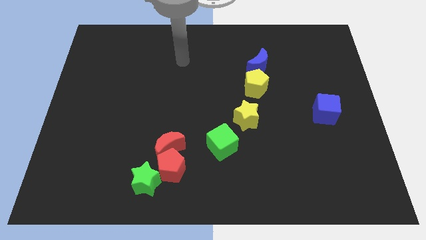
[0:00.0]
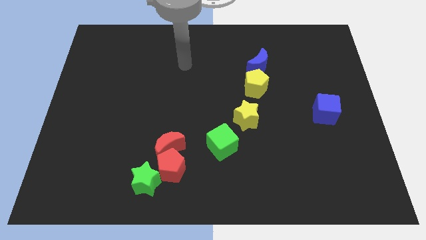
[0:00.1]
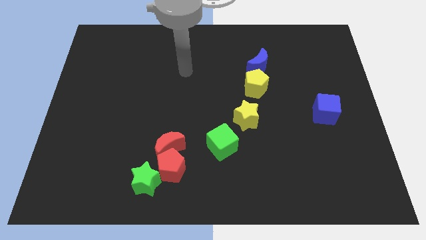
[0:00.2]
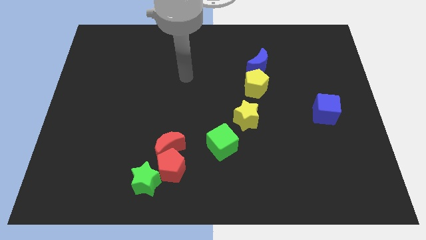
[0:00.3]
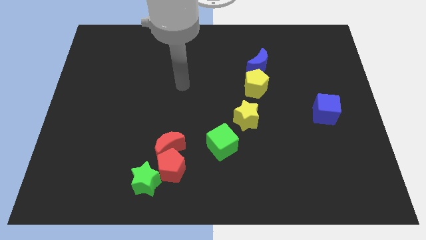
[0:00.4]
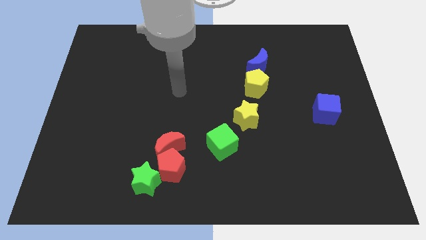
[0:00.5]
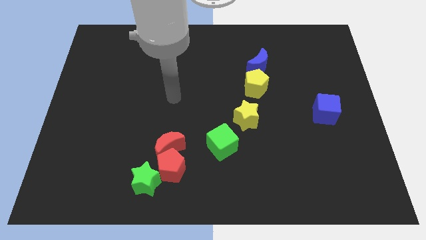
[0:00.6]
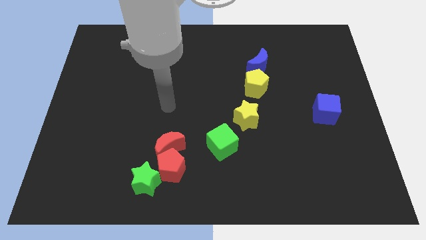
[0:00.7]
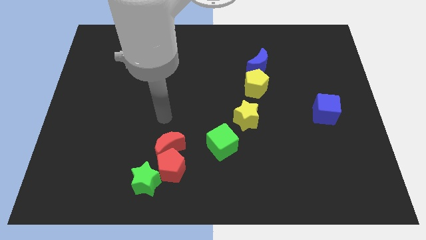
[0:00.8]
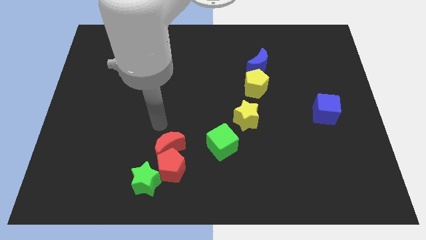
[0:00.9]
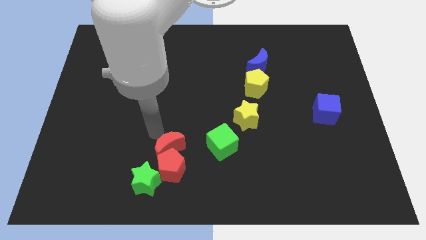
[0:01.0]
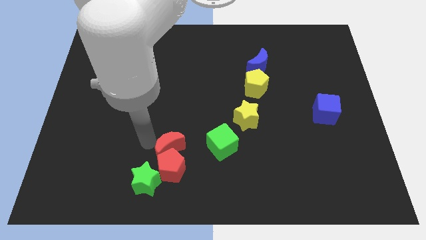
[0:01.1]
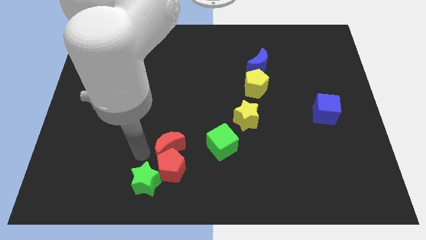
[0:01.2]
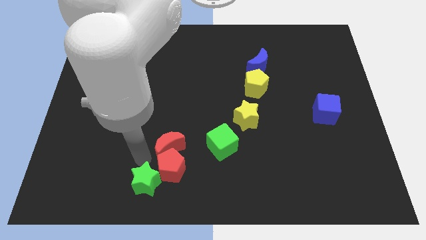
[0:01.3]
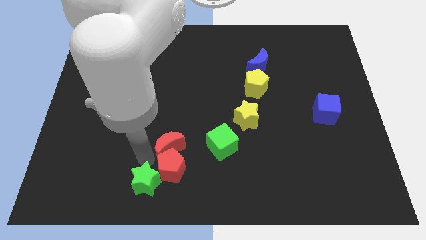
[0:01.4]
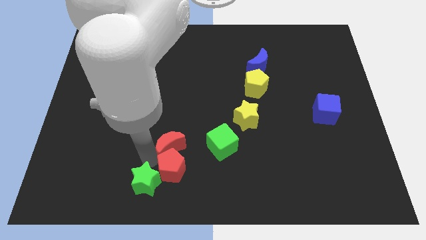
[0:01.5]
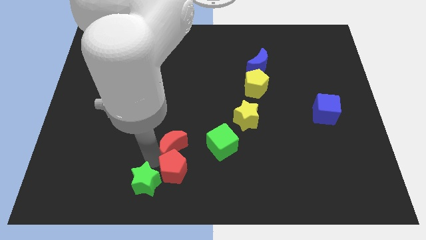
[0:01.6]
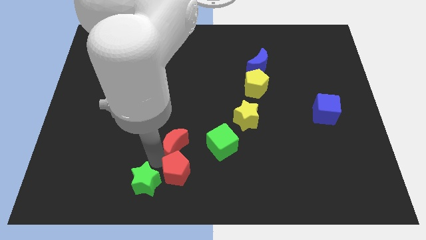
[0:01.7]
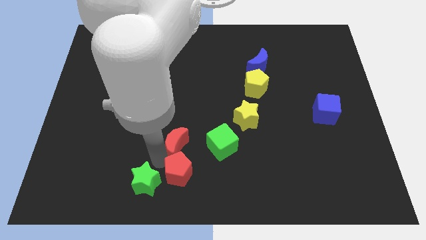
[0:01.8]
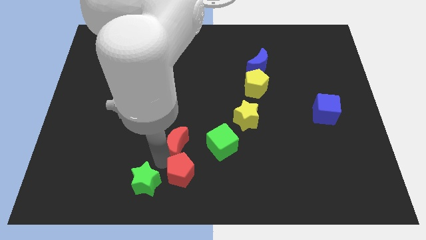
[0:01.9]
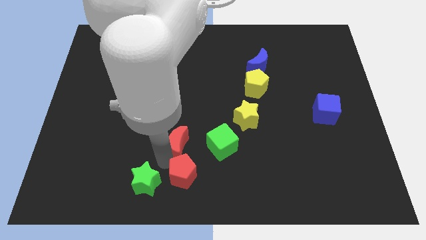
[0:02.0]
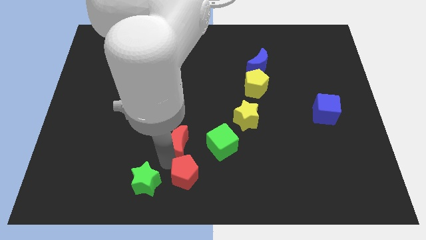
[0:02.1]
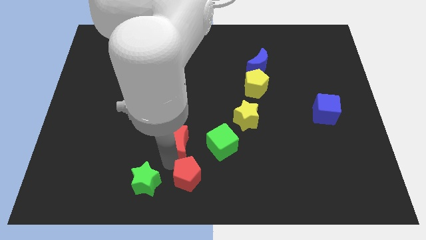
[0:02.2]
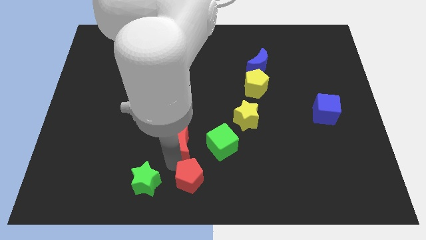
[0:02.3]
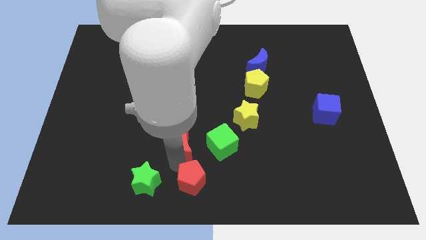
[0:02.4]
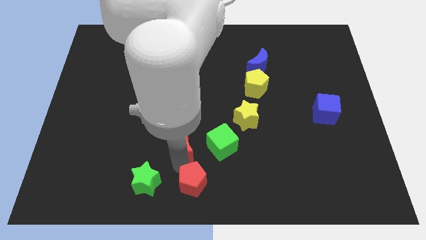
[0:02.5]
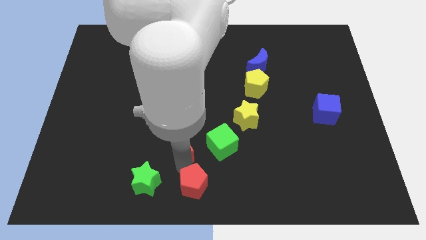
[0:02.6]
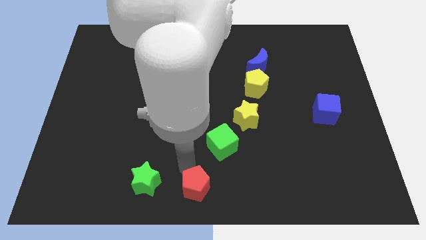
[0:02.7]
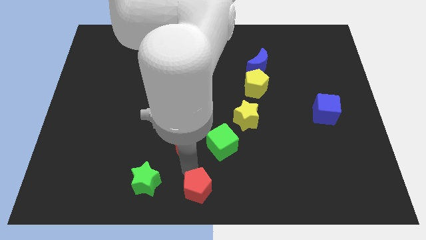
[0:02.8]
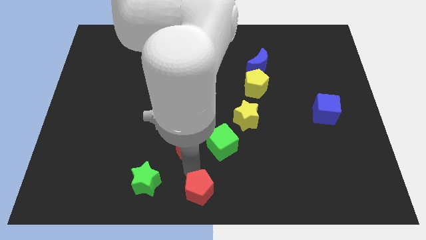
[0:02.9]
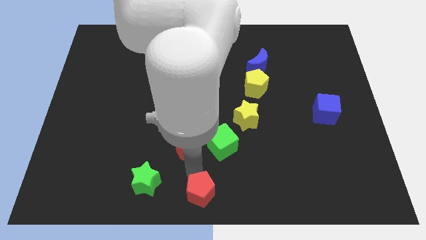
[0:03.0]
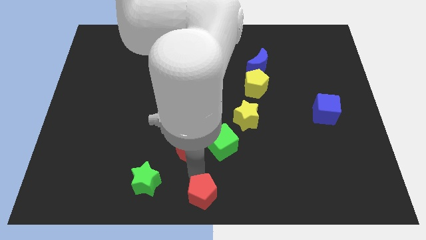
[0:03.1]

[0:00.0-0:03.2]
move the red pentagon away from the red moon and green star

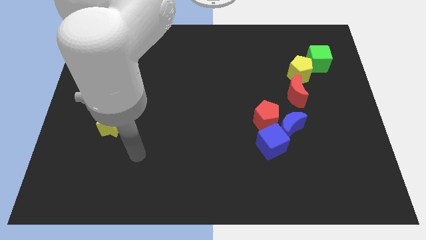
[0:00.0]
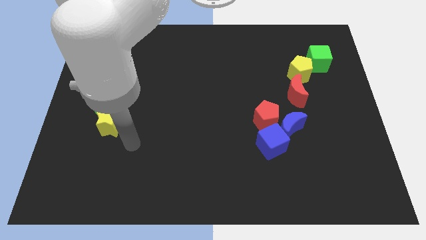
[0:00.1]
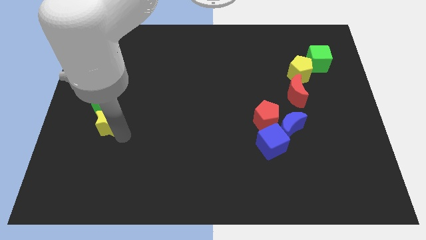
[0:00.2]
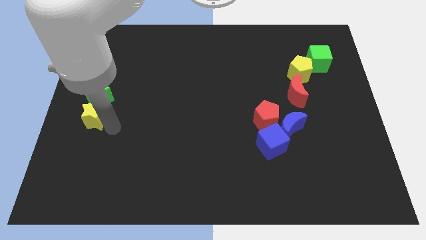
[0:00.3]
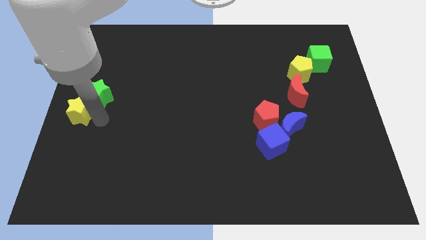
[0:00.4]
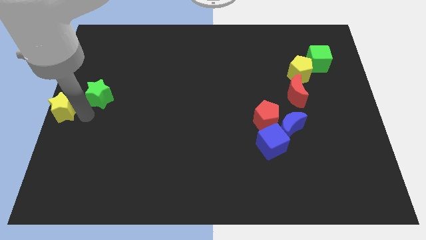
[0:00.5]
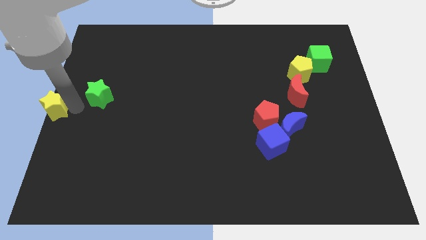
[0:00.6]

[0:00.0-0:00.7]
move the green star away from the yellow star

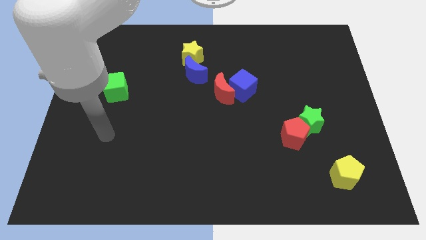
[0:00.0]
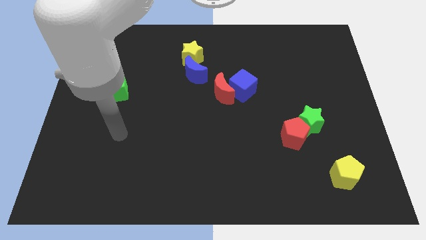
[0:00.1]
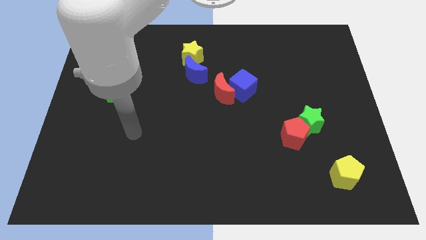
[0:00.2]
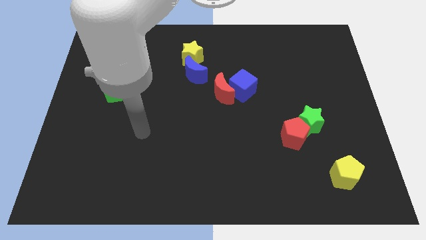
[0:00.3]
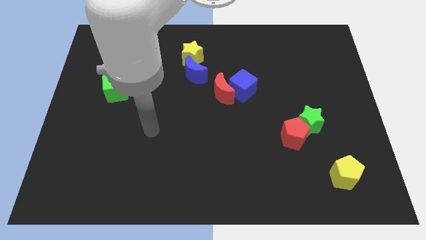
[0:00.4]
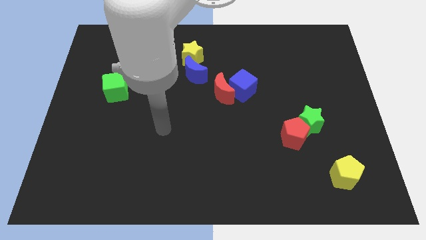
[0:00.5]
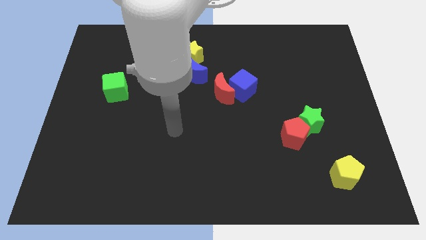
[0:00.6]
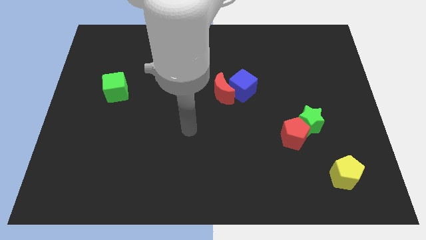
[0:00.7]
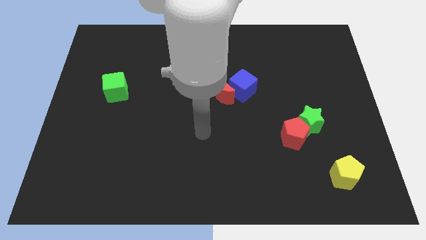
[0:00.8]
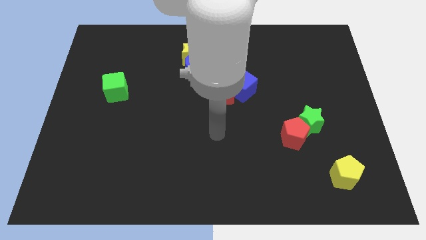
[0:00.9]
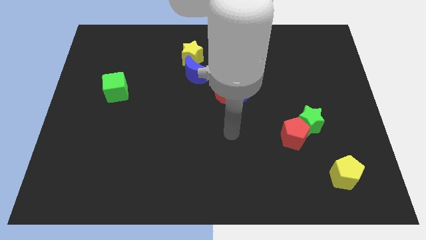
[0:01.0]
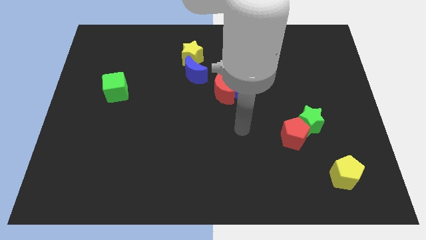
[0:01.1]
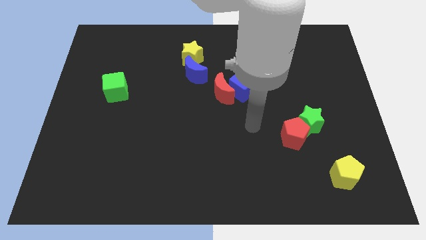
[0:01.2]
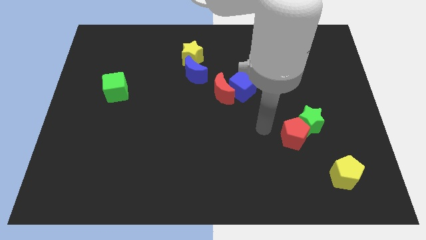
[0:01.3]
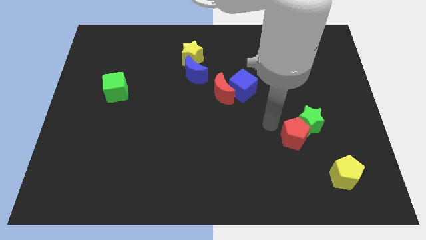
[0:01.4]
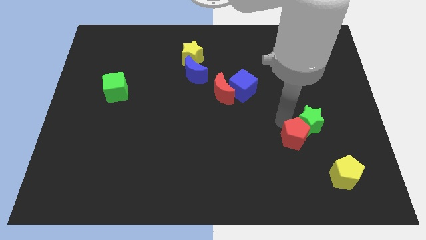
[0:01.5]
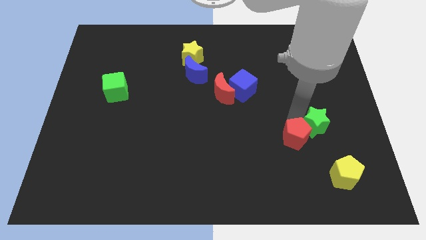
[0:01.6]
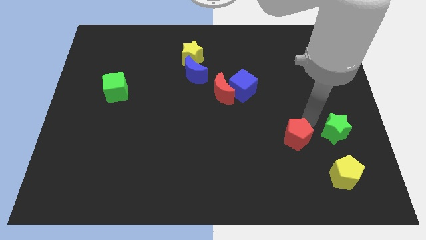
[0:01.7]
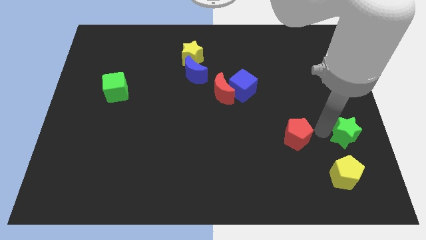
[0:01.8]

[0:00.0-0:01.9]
pull the red pentagon apart from the green star

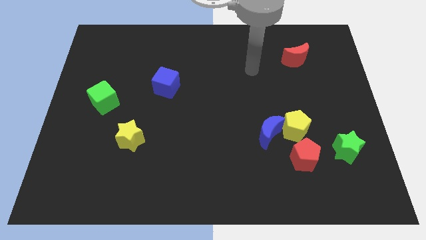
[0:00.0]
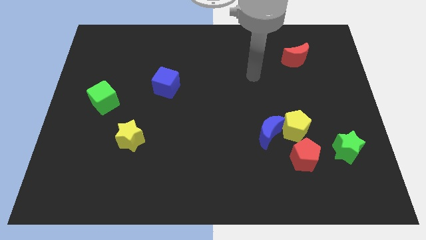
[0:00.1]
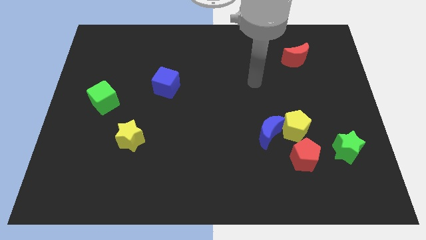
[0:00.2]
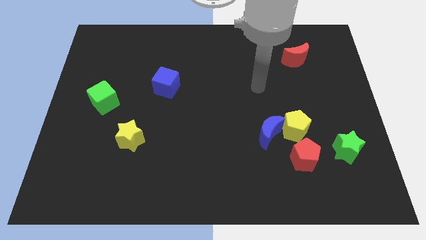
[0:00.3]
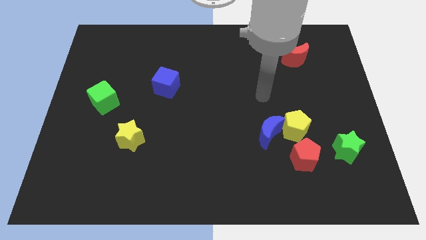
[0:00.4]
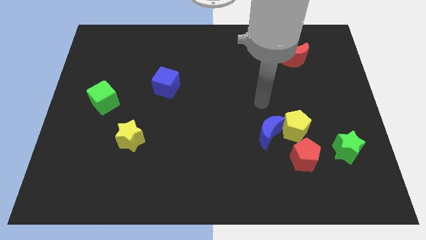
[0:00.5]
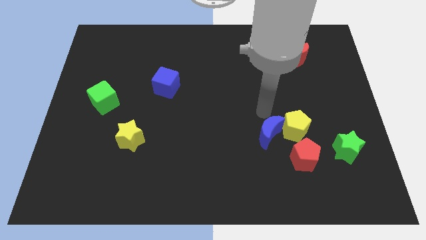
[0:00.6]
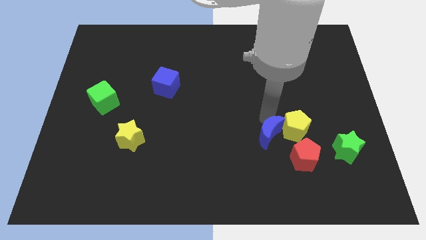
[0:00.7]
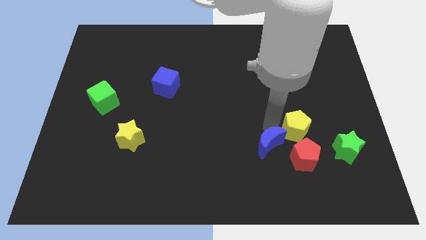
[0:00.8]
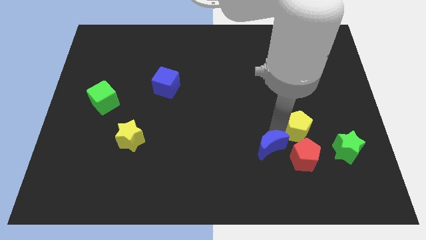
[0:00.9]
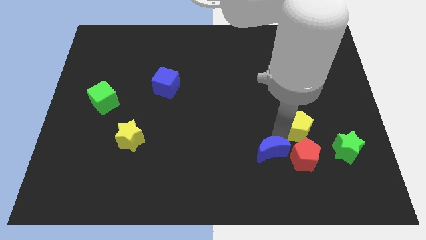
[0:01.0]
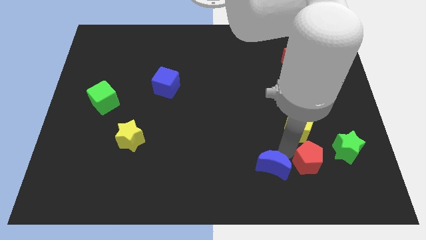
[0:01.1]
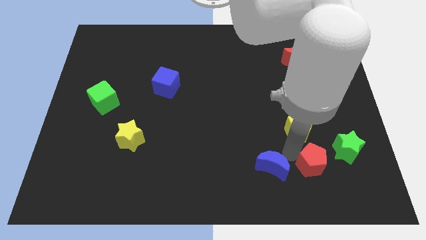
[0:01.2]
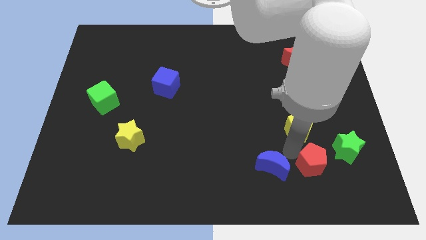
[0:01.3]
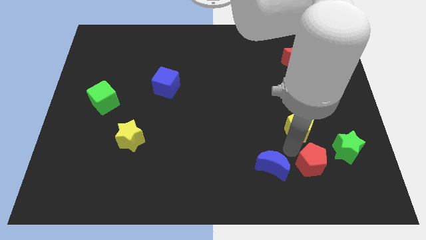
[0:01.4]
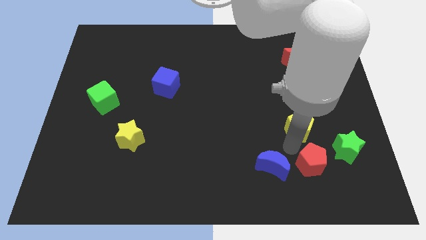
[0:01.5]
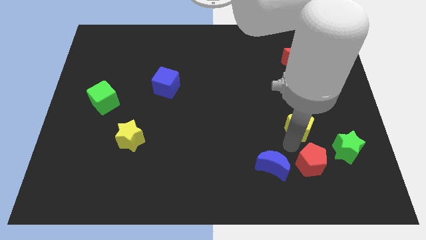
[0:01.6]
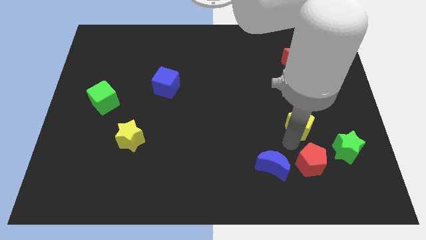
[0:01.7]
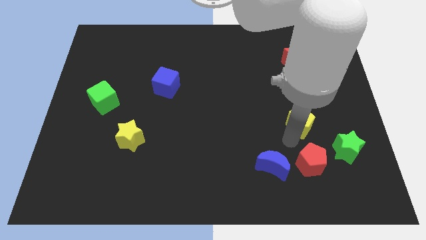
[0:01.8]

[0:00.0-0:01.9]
separate the yellow pentagon from the blue moon and red pentagon

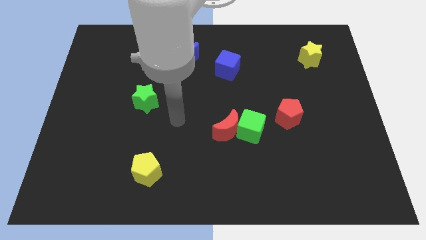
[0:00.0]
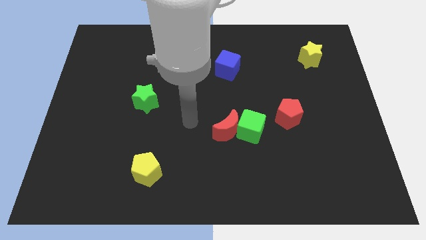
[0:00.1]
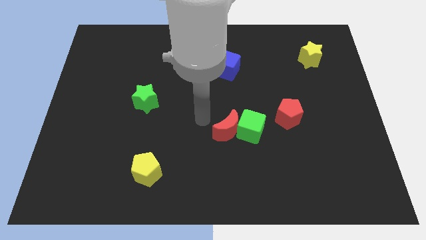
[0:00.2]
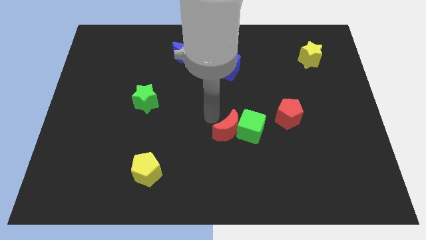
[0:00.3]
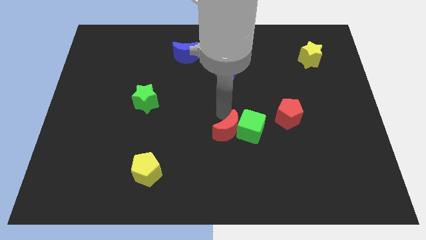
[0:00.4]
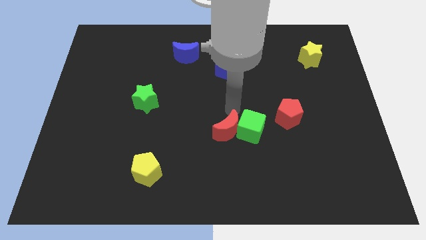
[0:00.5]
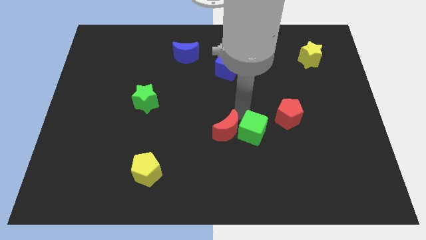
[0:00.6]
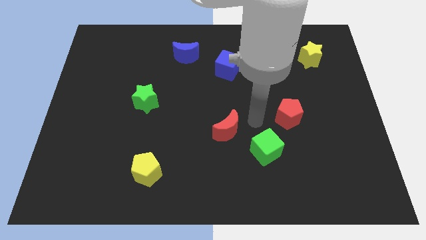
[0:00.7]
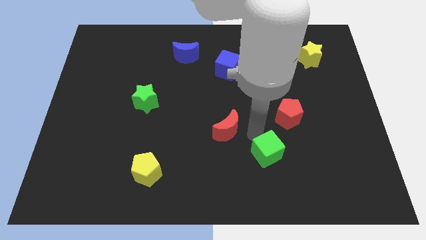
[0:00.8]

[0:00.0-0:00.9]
move the red moon away from the green cube

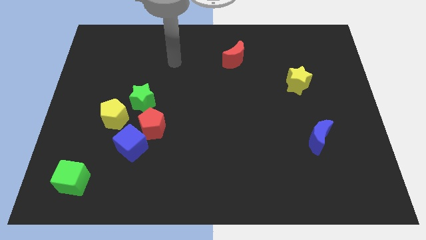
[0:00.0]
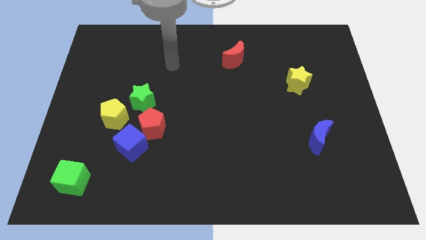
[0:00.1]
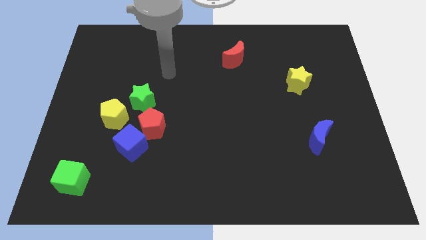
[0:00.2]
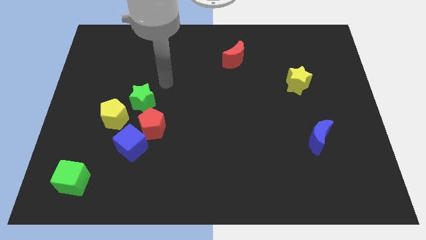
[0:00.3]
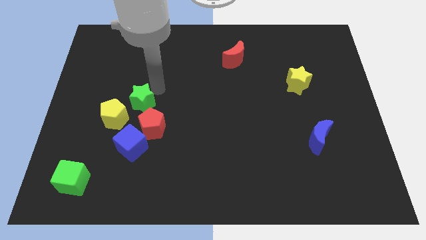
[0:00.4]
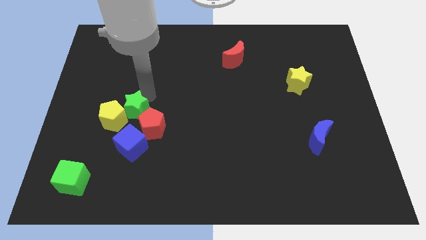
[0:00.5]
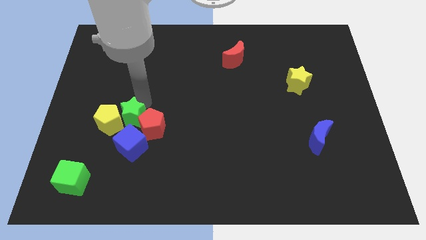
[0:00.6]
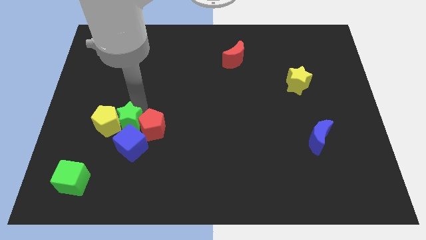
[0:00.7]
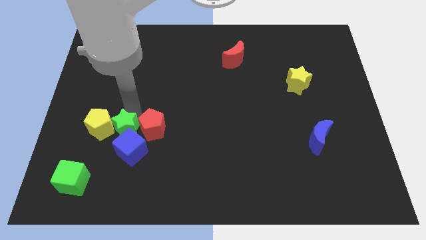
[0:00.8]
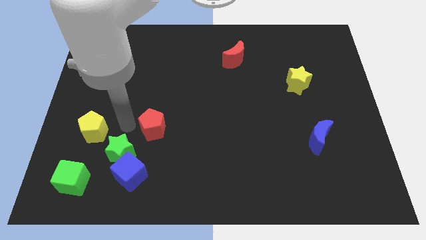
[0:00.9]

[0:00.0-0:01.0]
pull the blue cube apart from the red pentagon and yellow pentagon
